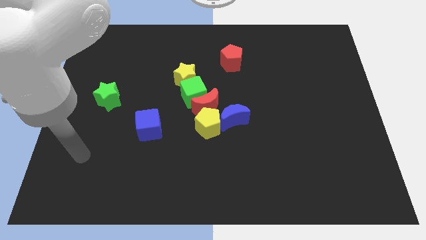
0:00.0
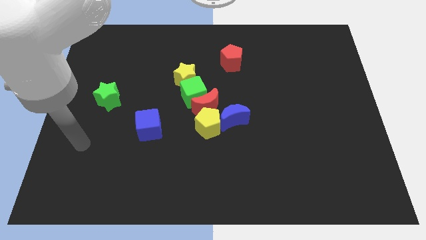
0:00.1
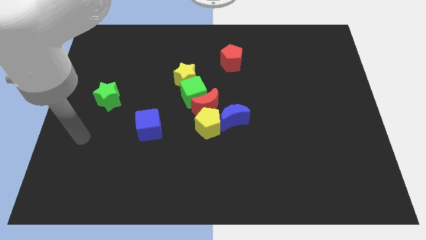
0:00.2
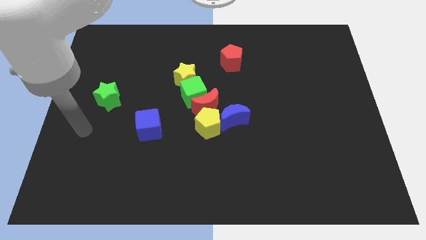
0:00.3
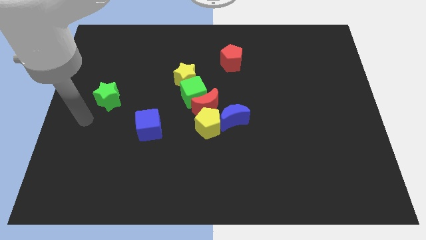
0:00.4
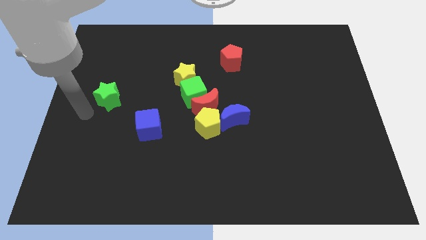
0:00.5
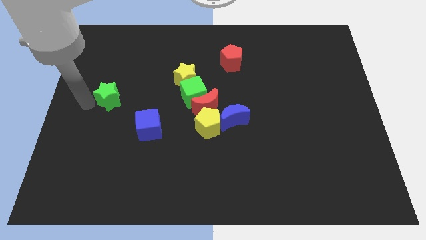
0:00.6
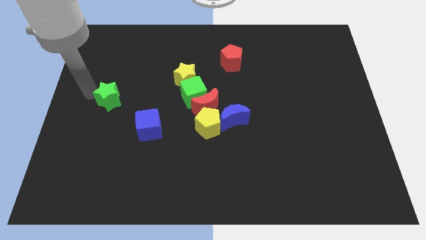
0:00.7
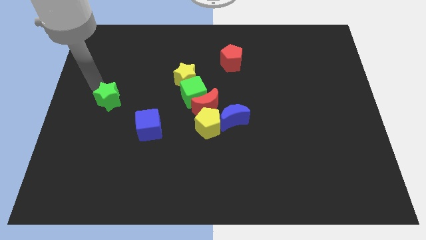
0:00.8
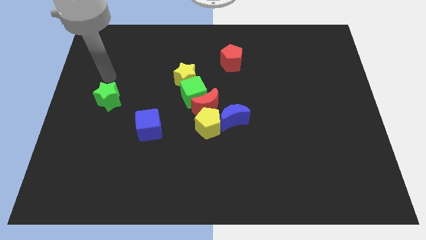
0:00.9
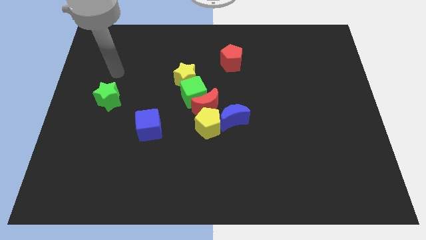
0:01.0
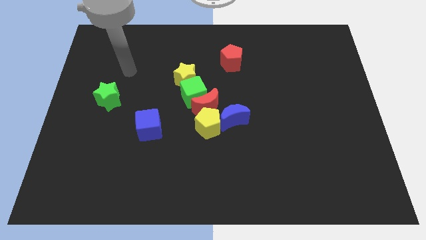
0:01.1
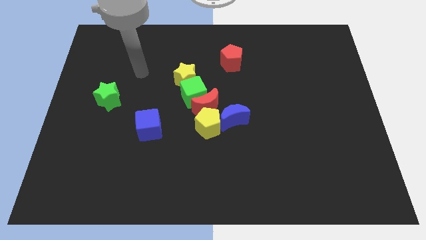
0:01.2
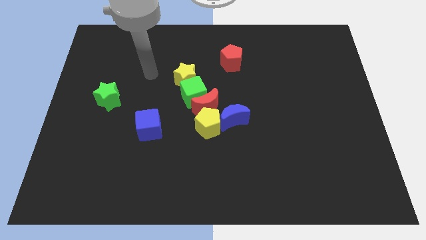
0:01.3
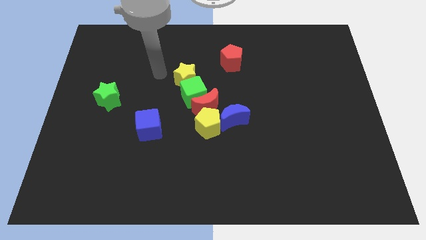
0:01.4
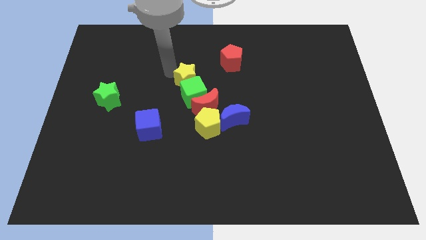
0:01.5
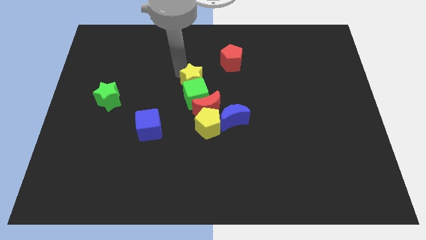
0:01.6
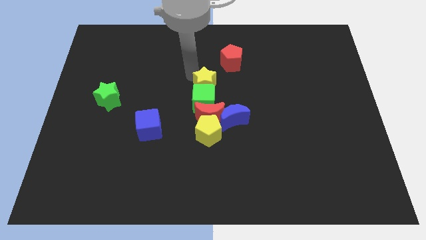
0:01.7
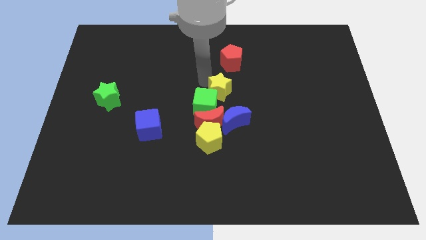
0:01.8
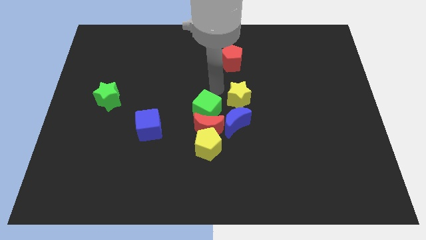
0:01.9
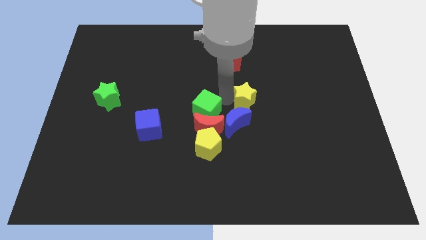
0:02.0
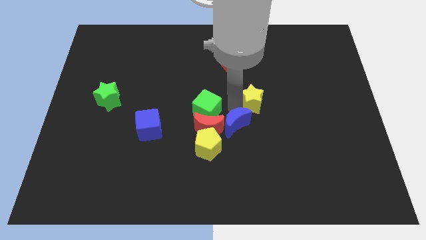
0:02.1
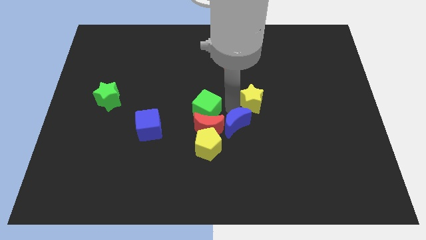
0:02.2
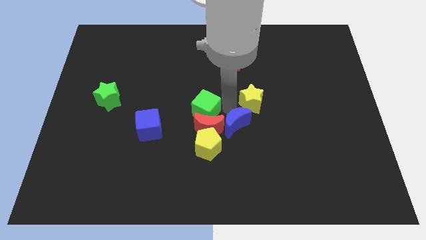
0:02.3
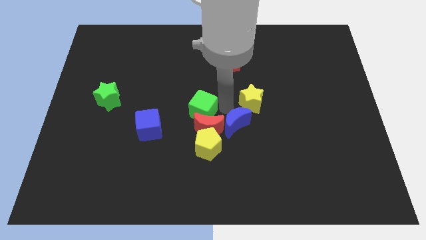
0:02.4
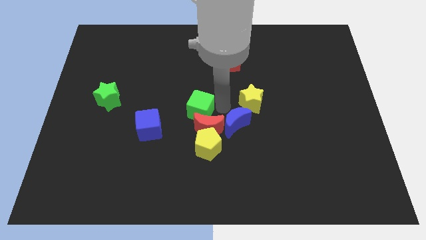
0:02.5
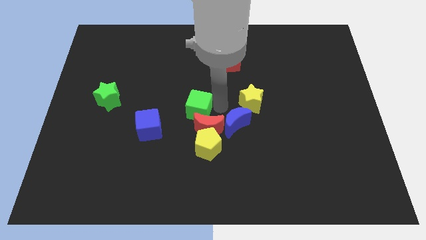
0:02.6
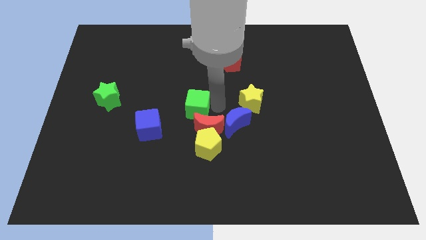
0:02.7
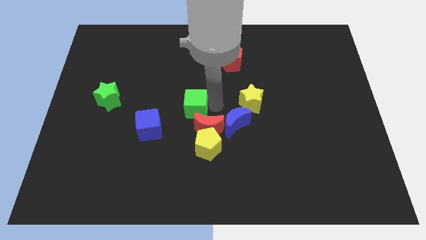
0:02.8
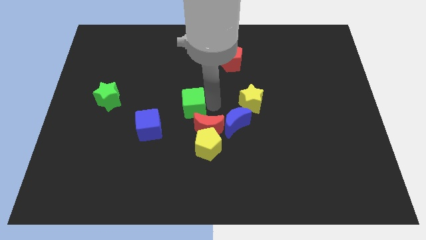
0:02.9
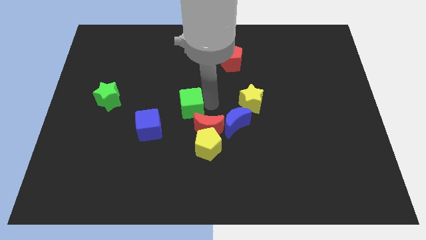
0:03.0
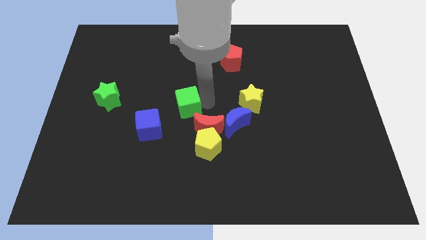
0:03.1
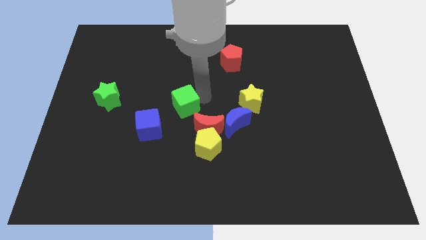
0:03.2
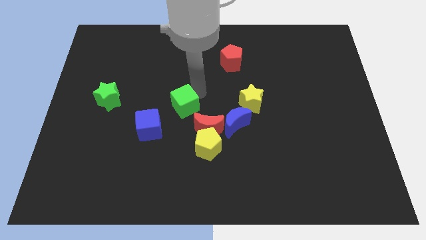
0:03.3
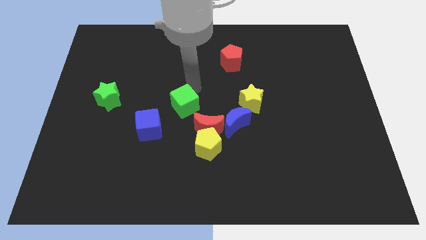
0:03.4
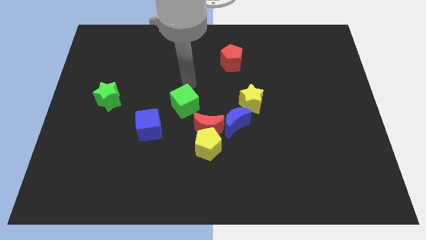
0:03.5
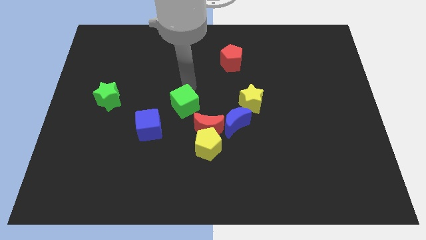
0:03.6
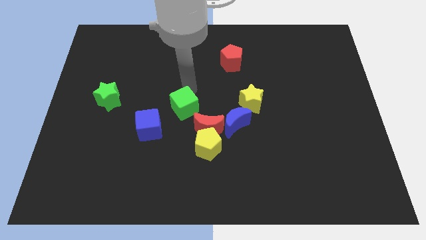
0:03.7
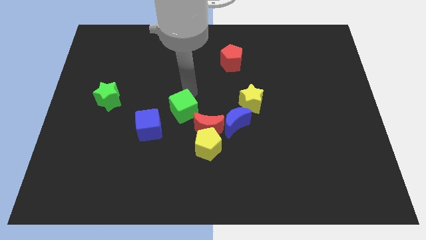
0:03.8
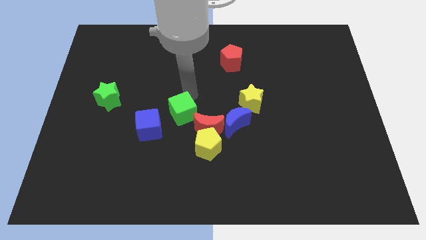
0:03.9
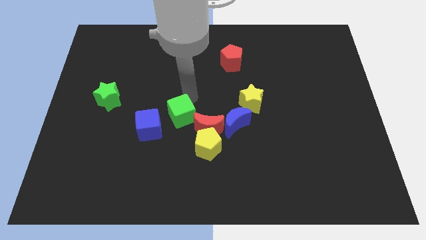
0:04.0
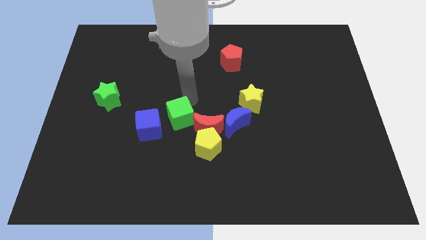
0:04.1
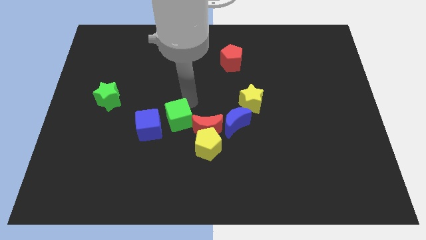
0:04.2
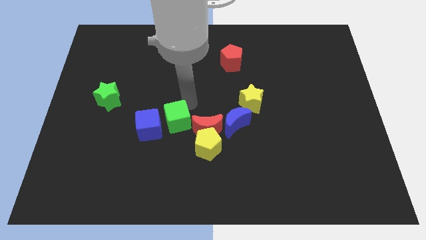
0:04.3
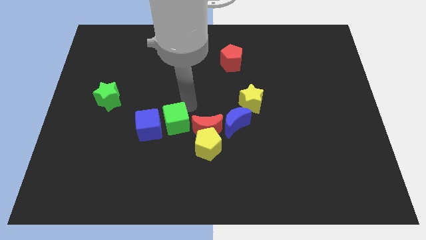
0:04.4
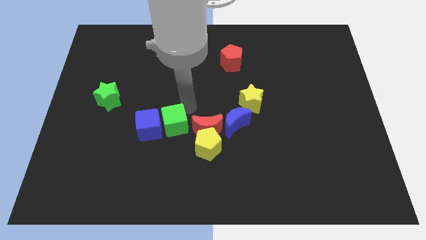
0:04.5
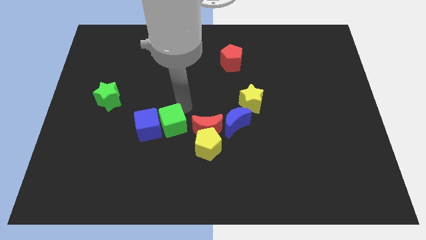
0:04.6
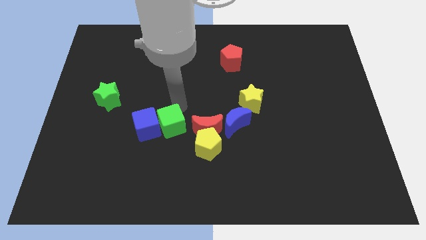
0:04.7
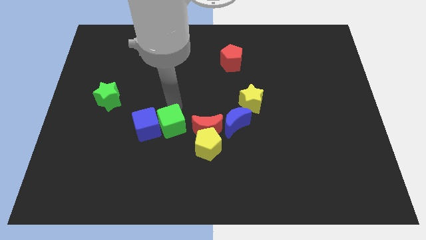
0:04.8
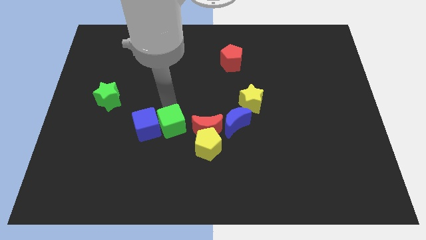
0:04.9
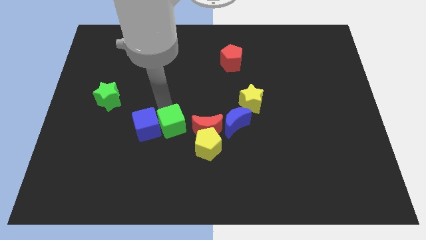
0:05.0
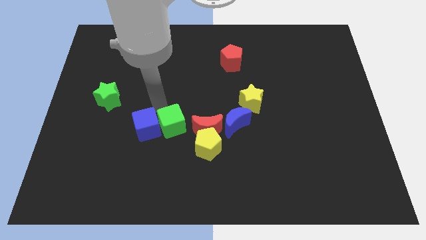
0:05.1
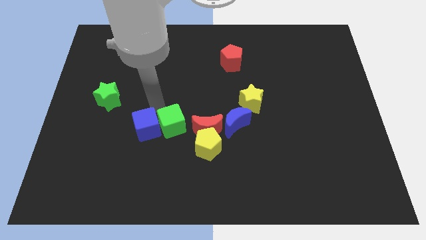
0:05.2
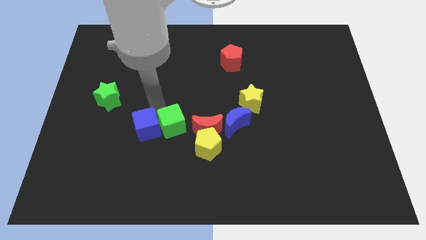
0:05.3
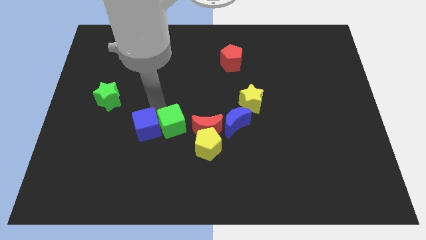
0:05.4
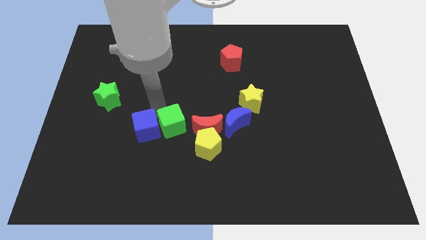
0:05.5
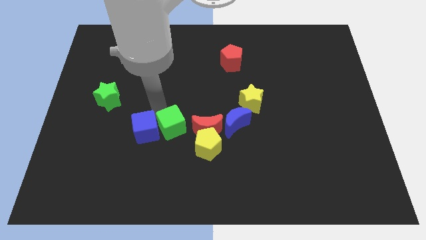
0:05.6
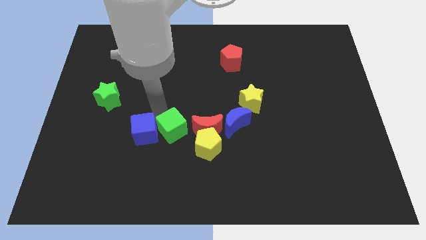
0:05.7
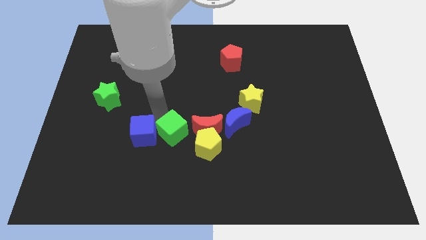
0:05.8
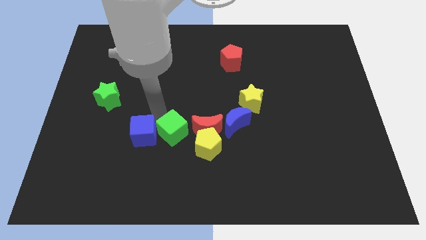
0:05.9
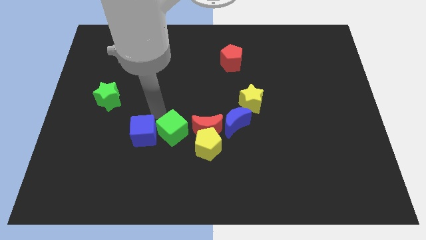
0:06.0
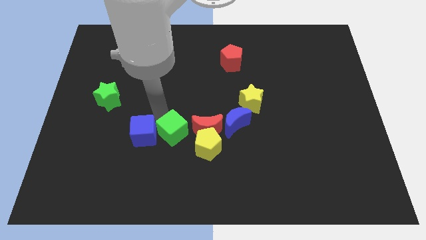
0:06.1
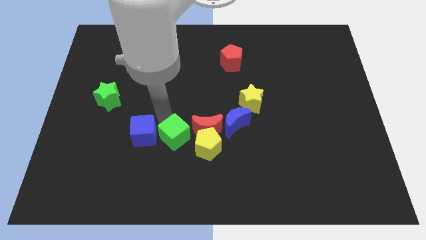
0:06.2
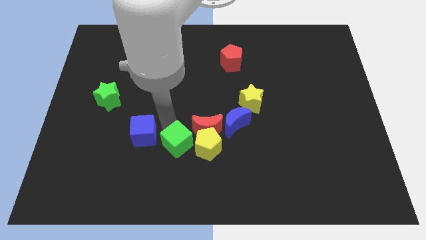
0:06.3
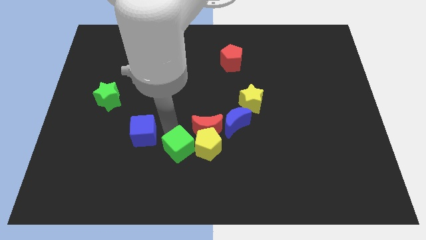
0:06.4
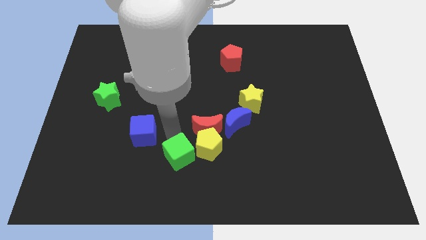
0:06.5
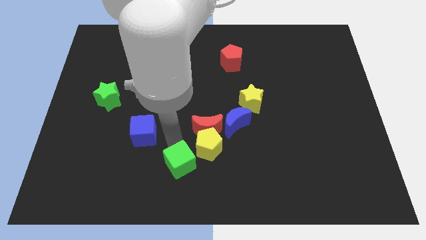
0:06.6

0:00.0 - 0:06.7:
move the green cube to the bottom side

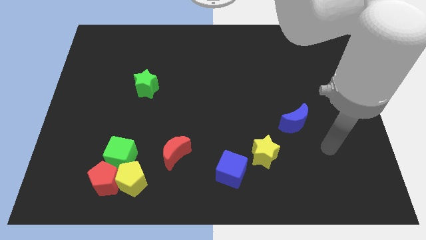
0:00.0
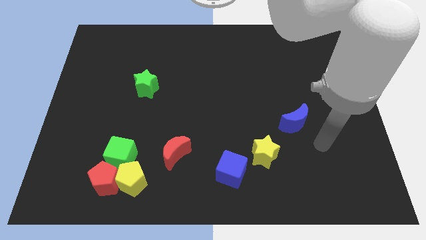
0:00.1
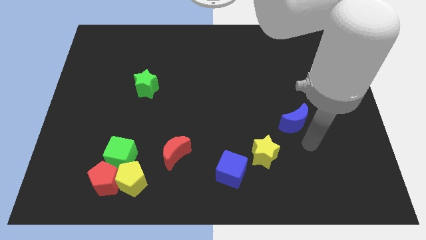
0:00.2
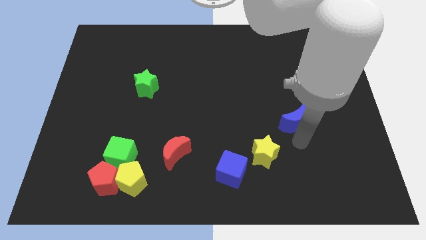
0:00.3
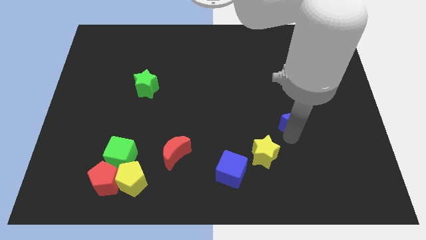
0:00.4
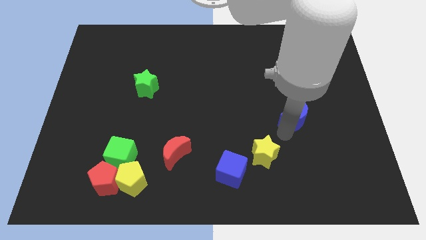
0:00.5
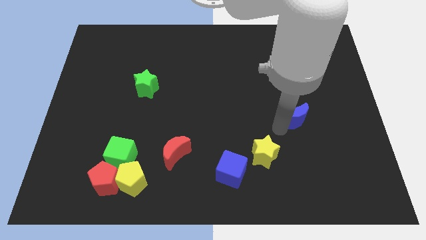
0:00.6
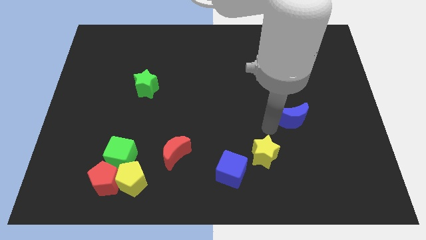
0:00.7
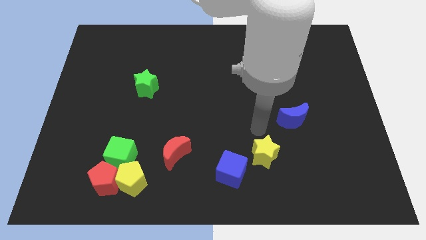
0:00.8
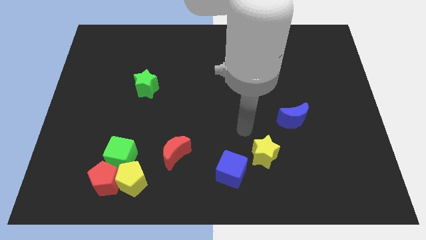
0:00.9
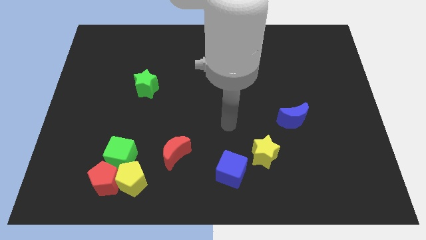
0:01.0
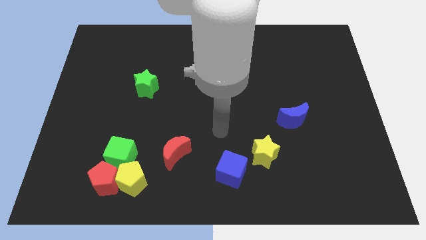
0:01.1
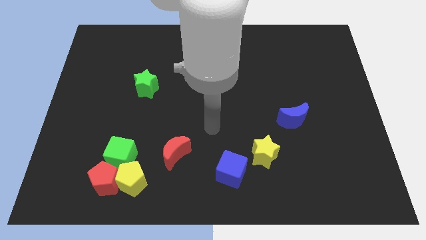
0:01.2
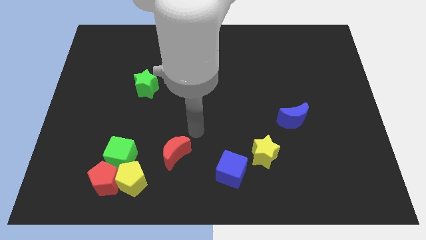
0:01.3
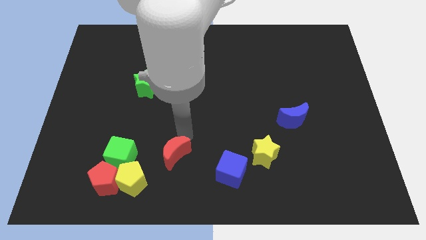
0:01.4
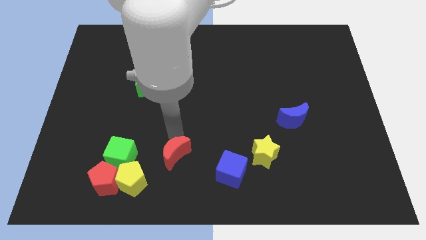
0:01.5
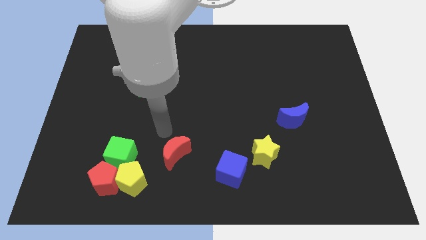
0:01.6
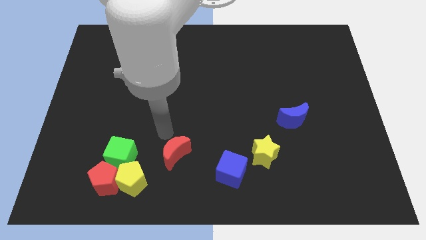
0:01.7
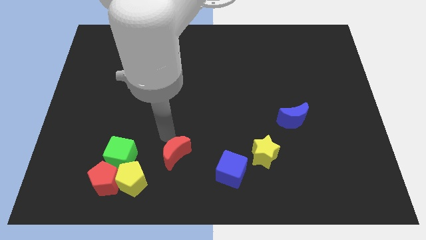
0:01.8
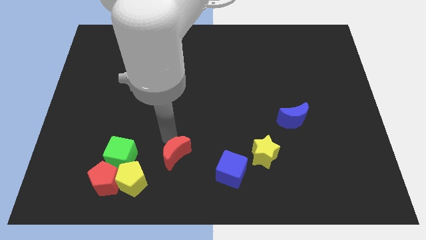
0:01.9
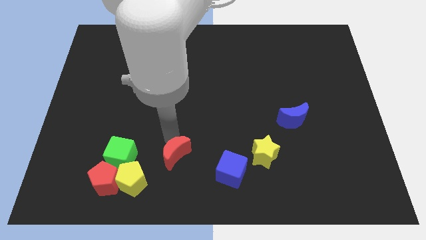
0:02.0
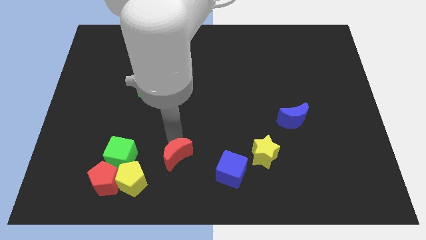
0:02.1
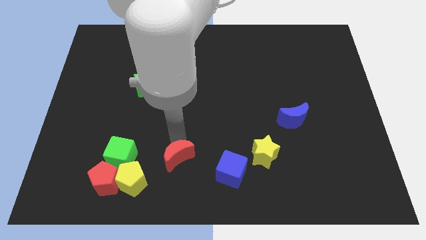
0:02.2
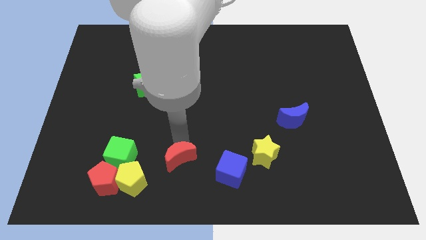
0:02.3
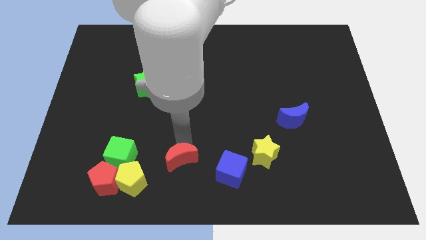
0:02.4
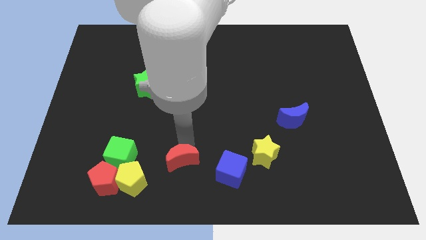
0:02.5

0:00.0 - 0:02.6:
put the red moon to the bottom side
